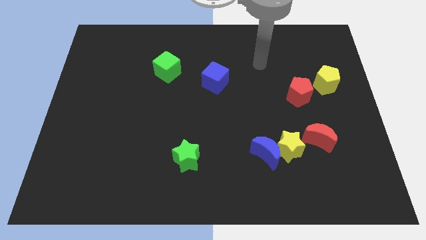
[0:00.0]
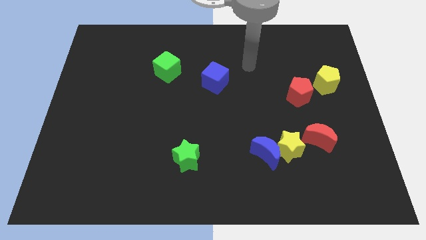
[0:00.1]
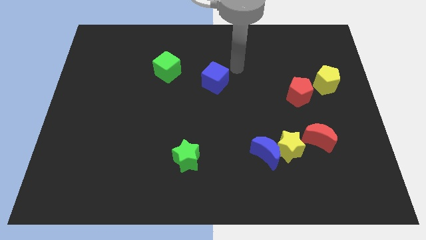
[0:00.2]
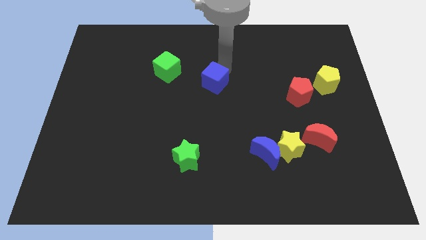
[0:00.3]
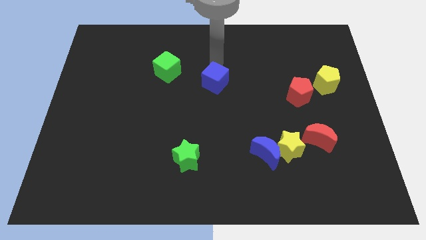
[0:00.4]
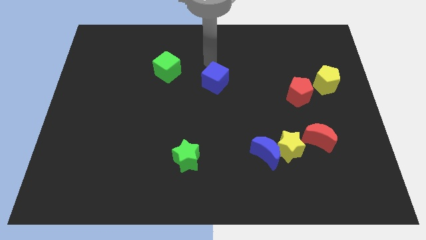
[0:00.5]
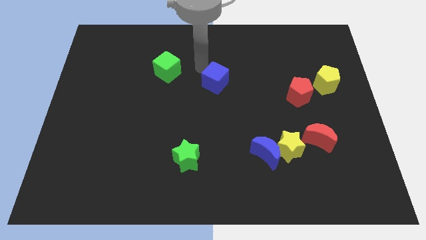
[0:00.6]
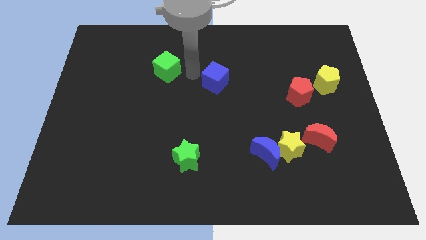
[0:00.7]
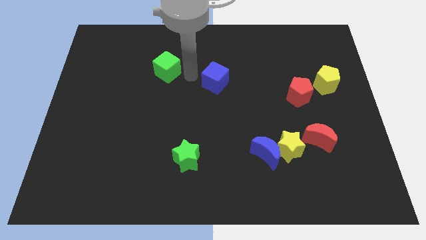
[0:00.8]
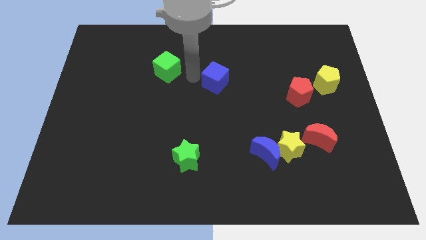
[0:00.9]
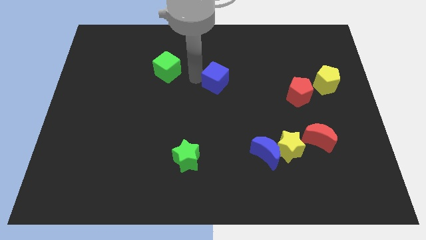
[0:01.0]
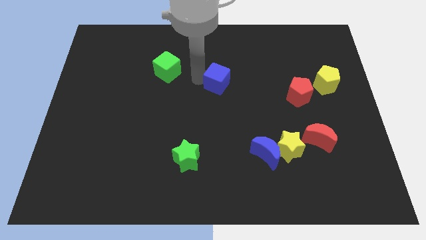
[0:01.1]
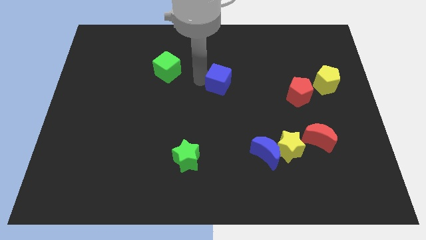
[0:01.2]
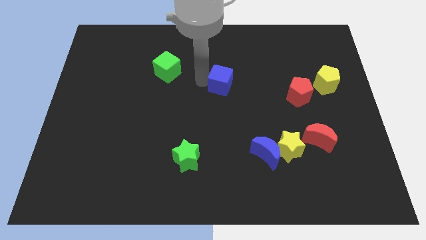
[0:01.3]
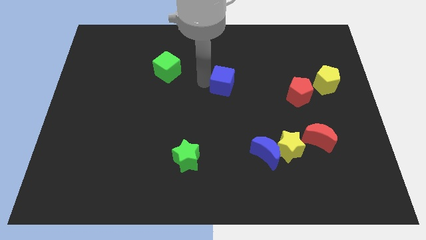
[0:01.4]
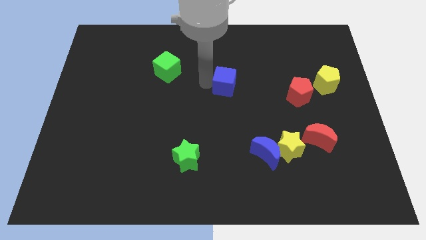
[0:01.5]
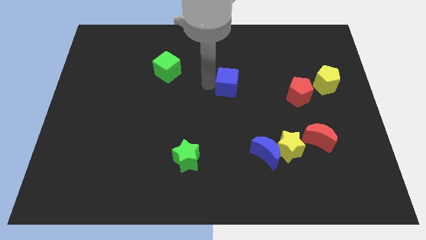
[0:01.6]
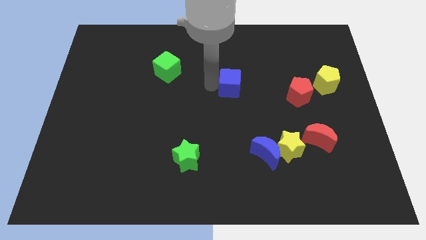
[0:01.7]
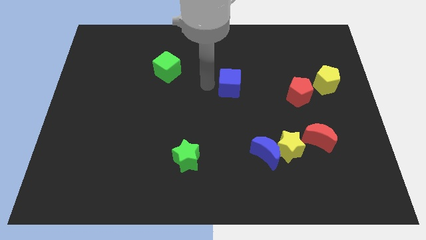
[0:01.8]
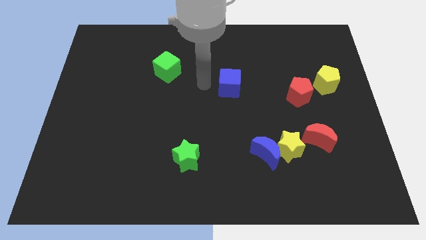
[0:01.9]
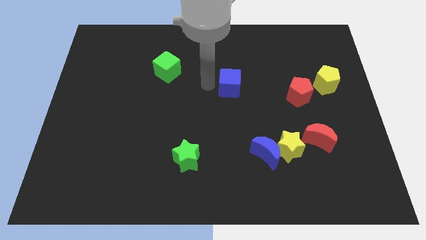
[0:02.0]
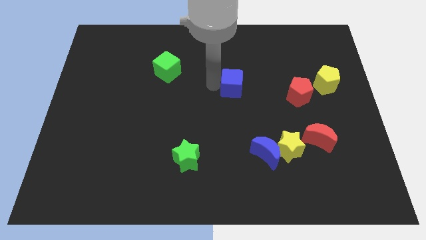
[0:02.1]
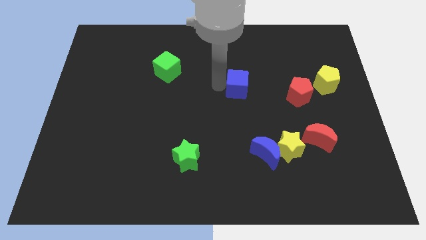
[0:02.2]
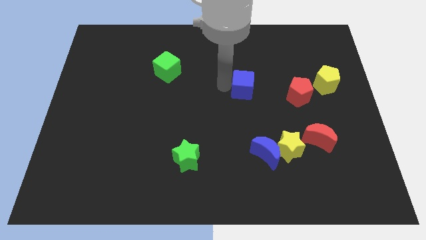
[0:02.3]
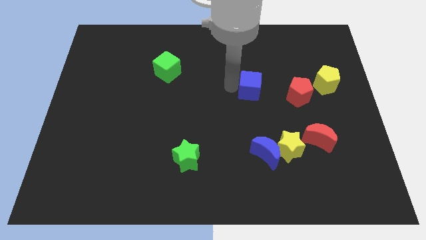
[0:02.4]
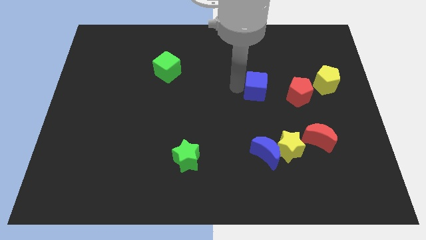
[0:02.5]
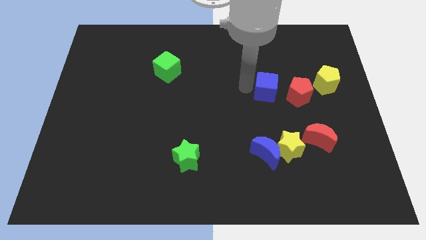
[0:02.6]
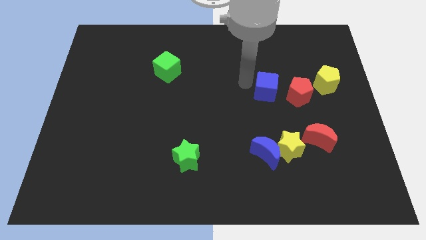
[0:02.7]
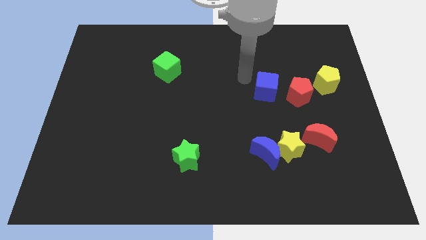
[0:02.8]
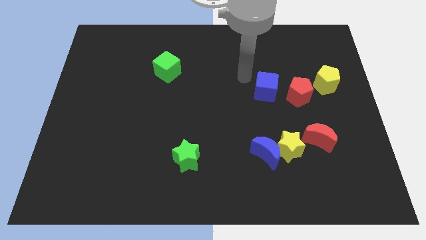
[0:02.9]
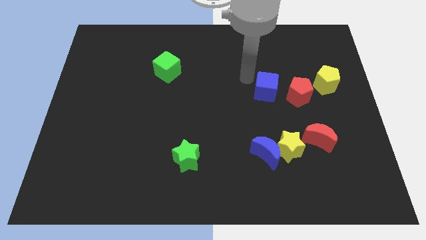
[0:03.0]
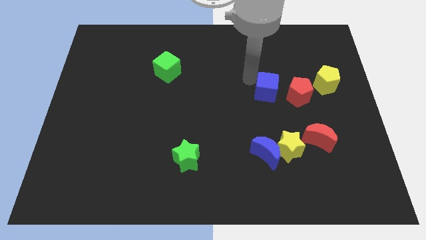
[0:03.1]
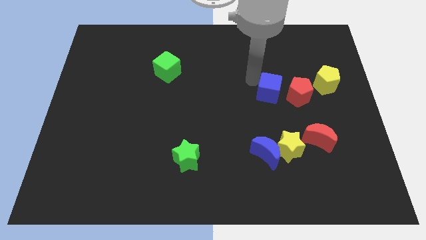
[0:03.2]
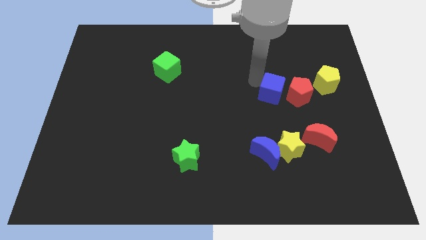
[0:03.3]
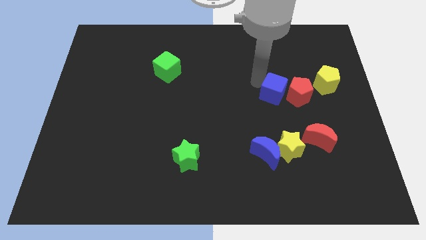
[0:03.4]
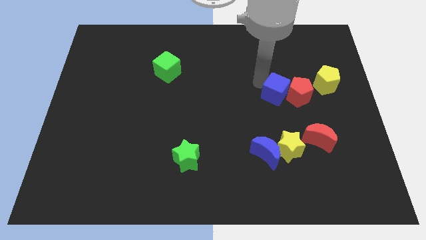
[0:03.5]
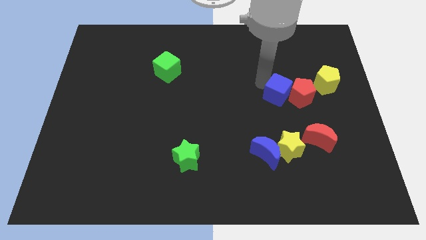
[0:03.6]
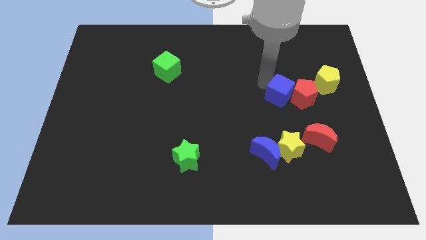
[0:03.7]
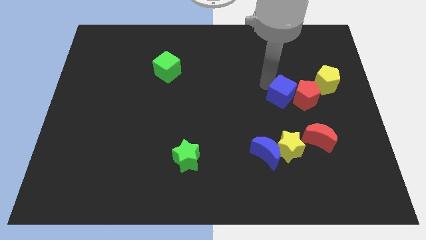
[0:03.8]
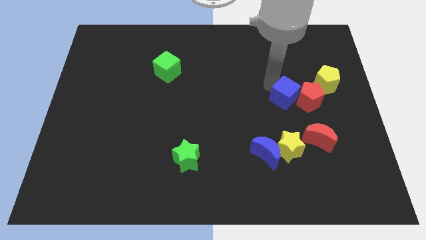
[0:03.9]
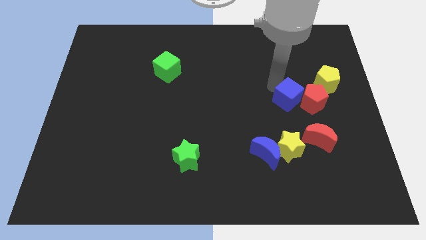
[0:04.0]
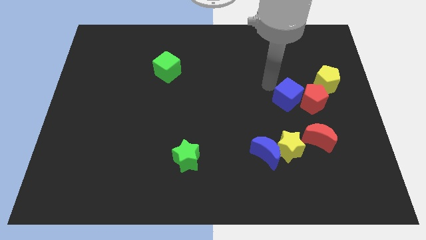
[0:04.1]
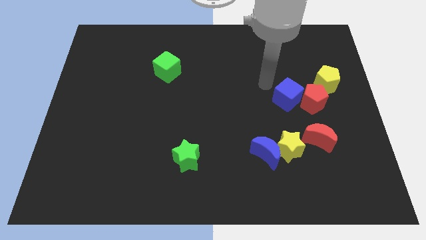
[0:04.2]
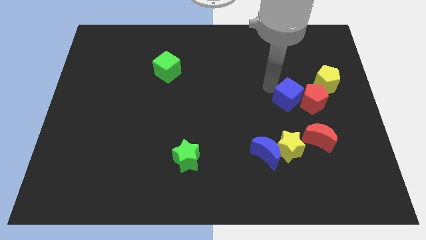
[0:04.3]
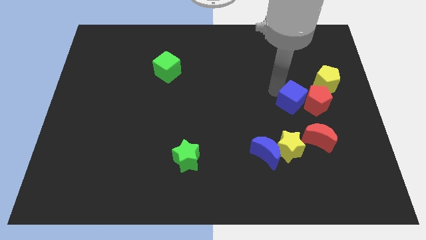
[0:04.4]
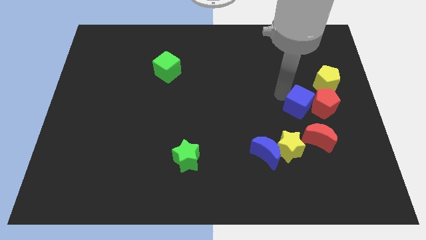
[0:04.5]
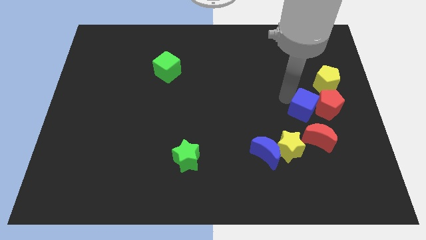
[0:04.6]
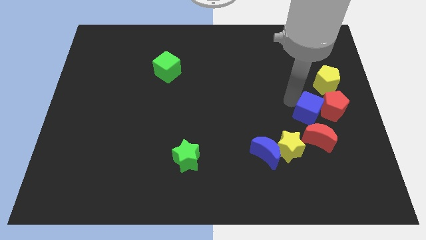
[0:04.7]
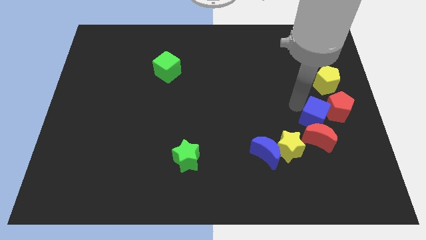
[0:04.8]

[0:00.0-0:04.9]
move the blue cube diagonally up and to the right of the red moon

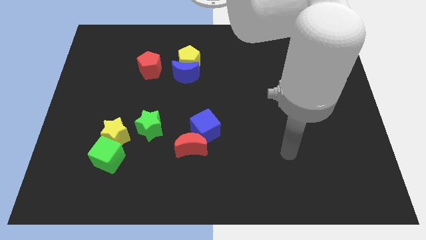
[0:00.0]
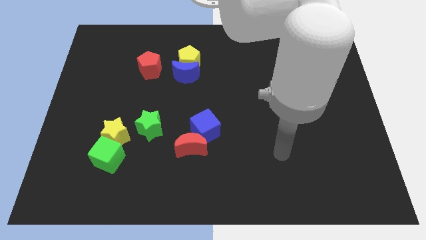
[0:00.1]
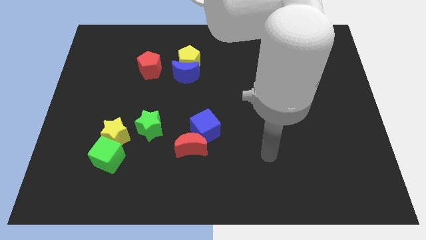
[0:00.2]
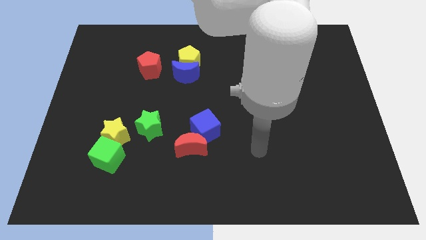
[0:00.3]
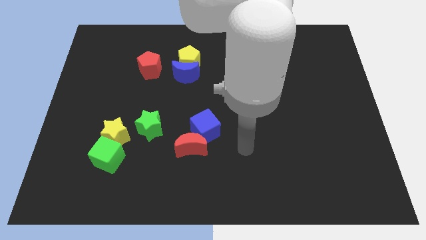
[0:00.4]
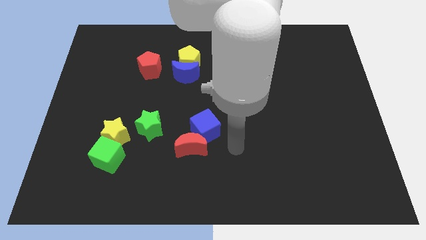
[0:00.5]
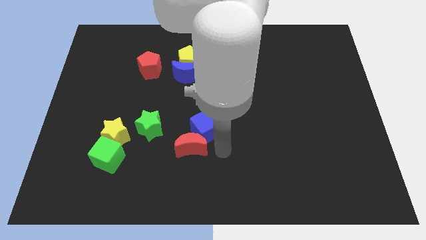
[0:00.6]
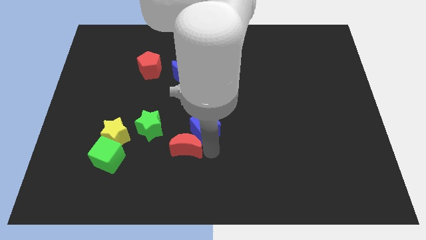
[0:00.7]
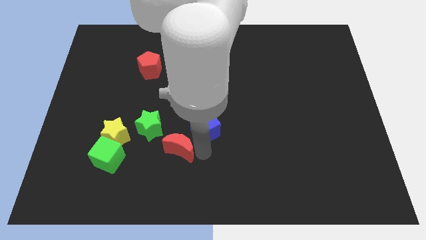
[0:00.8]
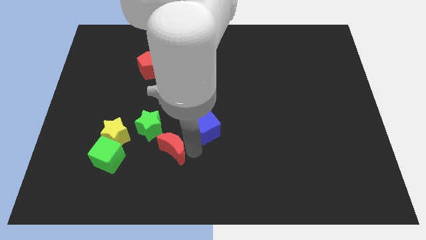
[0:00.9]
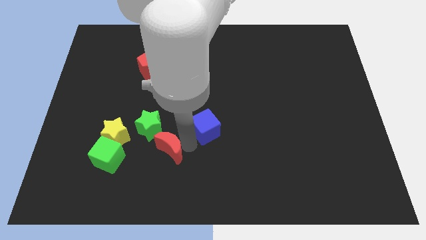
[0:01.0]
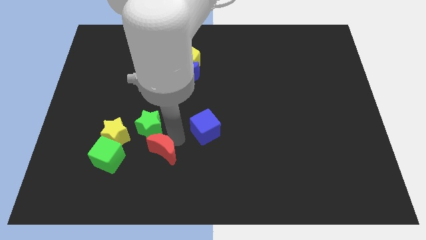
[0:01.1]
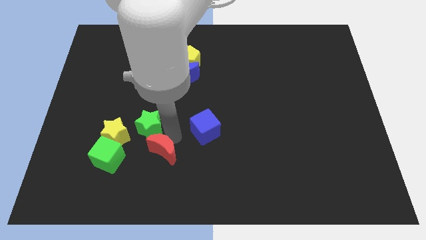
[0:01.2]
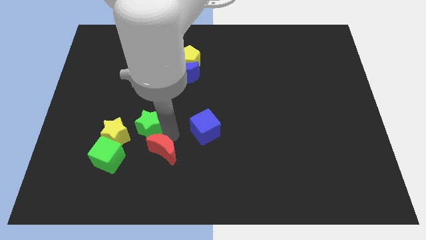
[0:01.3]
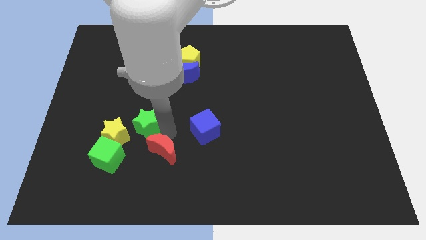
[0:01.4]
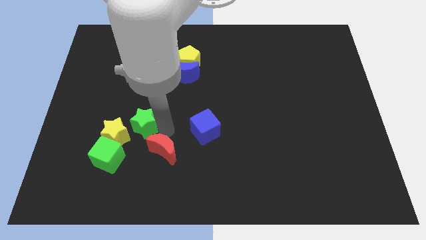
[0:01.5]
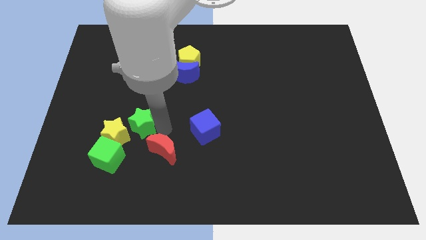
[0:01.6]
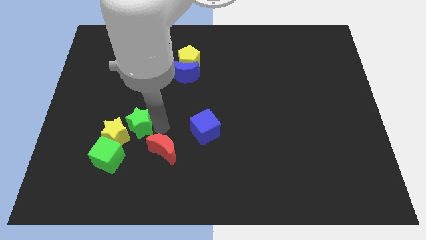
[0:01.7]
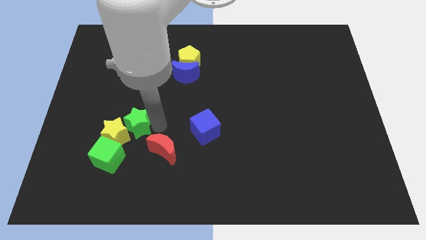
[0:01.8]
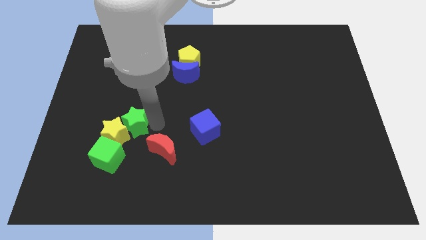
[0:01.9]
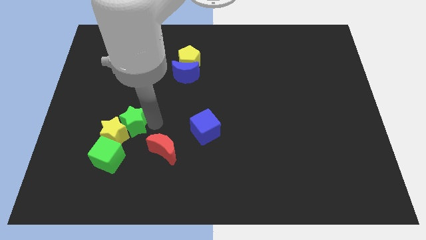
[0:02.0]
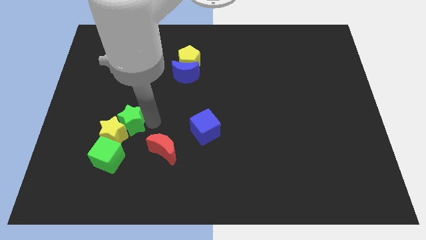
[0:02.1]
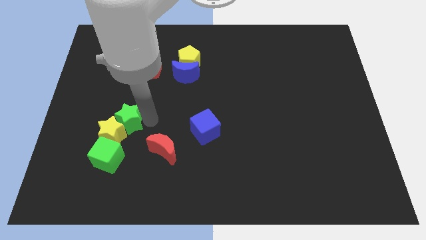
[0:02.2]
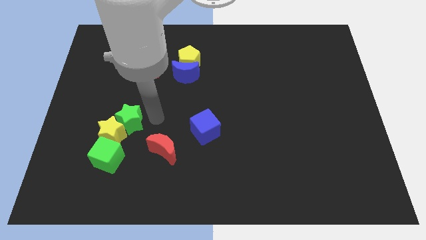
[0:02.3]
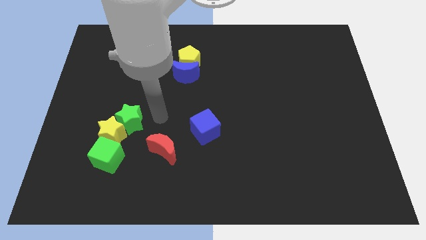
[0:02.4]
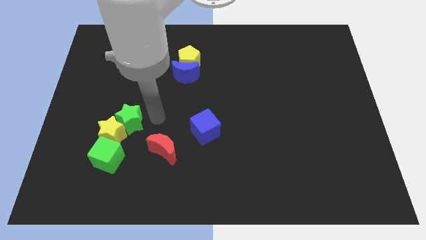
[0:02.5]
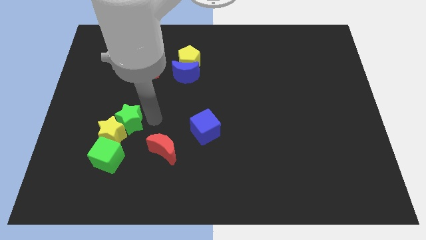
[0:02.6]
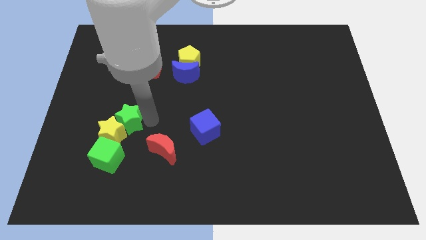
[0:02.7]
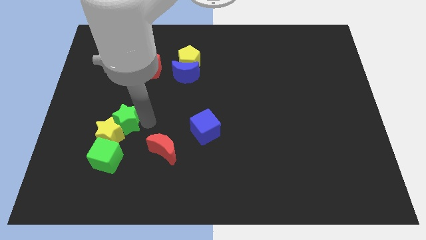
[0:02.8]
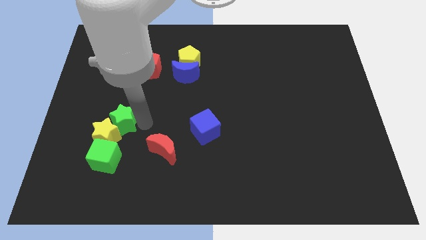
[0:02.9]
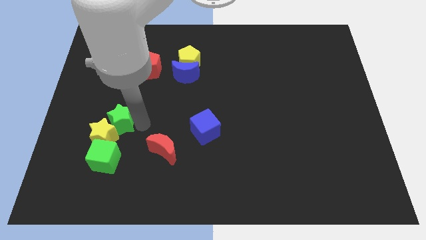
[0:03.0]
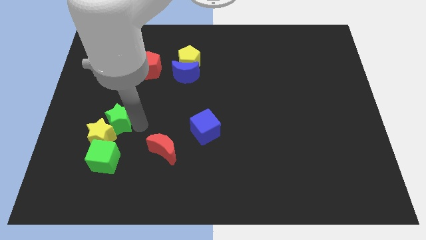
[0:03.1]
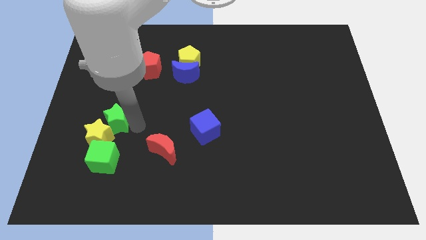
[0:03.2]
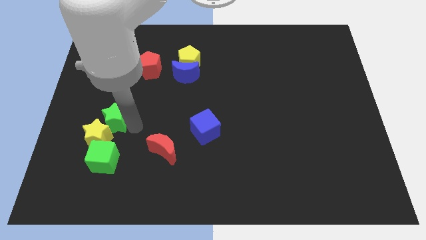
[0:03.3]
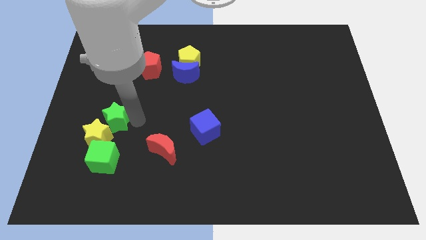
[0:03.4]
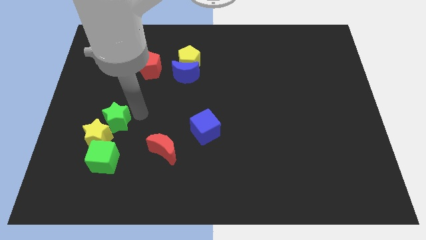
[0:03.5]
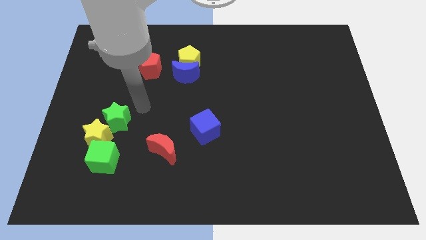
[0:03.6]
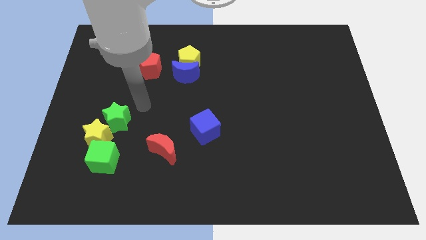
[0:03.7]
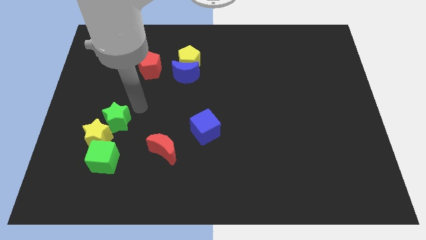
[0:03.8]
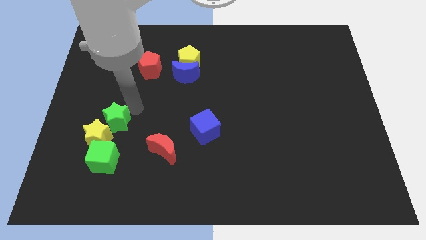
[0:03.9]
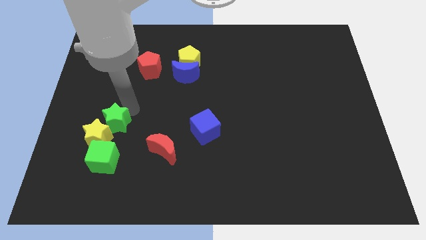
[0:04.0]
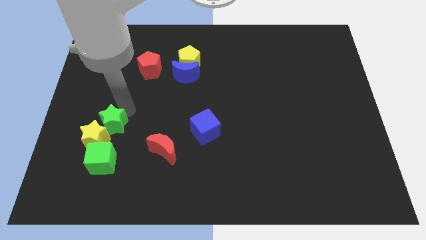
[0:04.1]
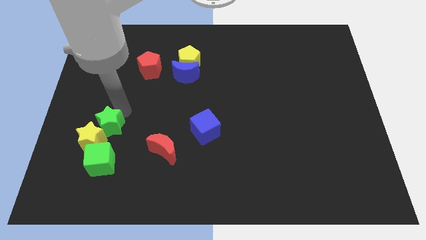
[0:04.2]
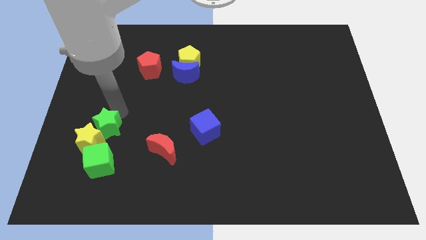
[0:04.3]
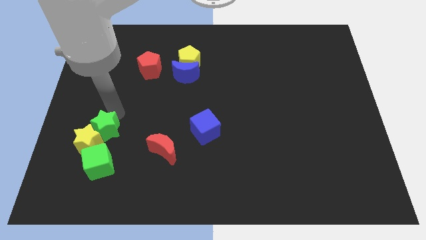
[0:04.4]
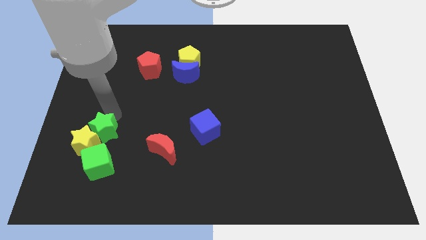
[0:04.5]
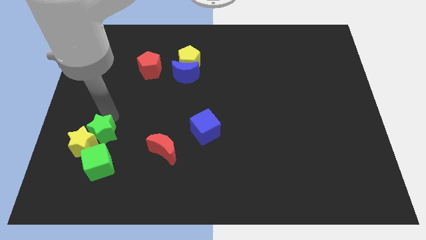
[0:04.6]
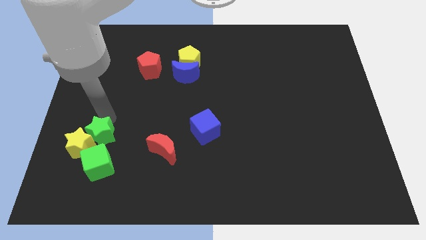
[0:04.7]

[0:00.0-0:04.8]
push the green star to the top left of the green cube
